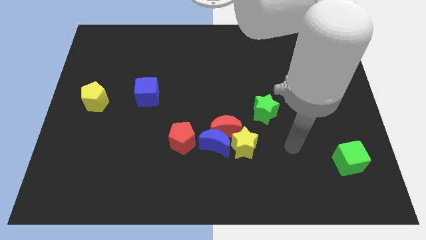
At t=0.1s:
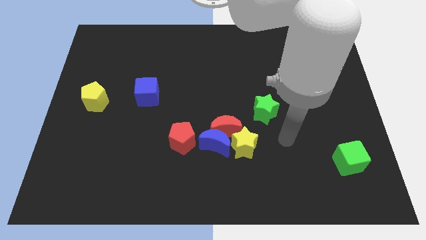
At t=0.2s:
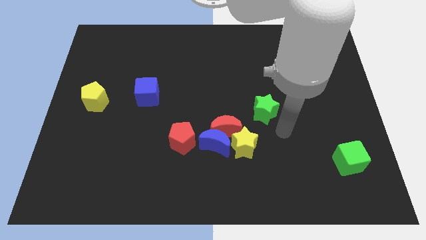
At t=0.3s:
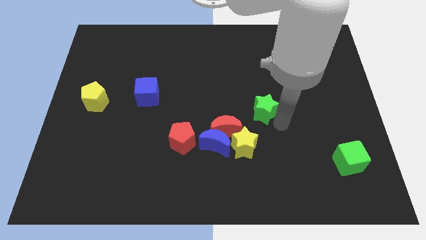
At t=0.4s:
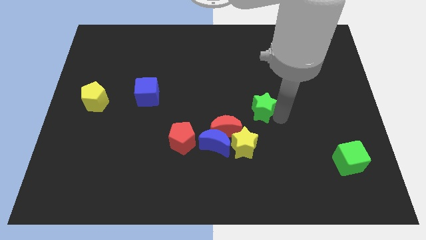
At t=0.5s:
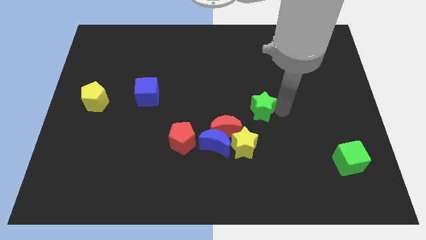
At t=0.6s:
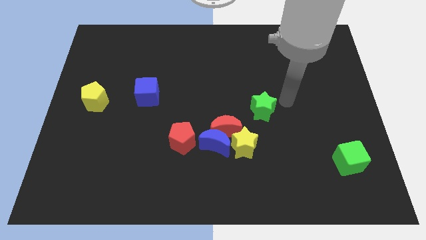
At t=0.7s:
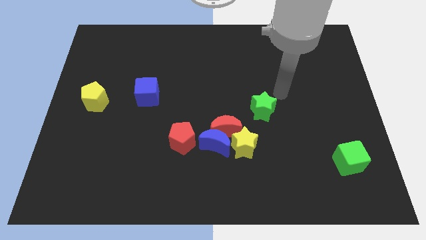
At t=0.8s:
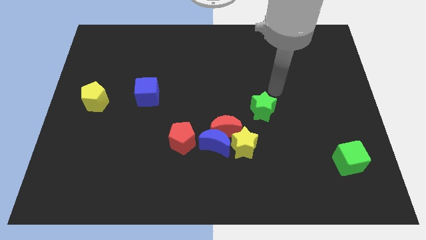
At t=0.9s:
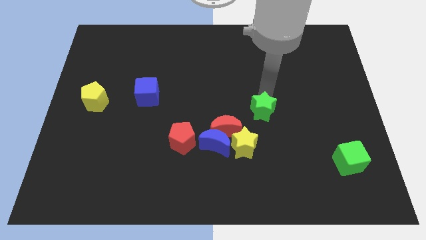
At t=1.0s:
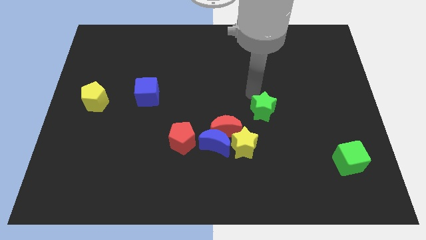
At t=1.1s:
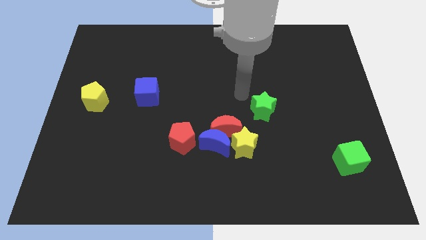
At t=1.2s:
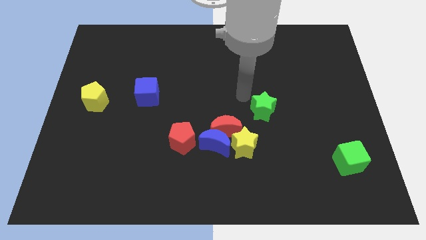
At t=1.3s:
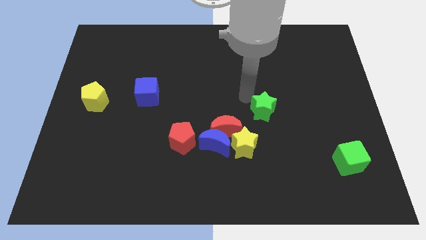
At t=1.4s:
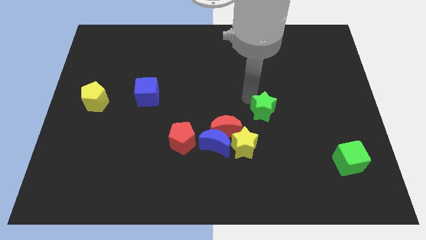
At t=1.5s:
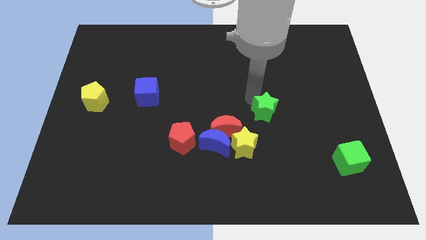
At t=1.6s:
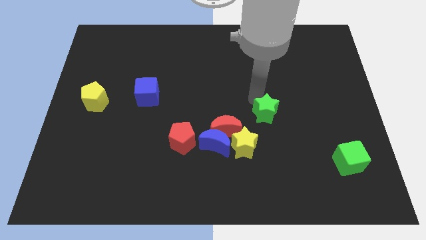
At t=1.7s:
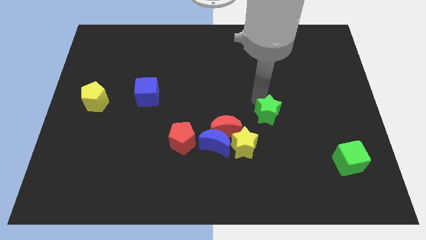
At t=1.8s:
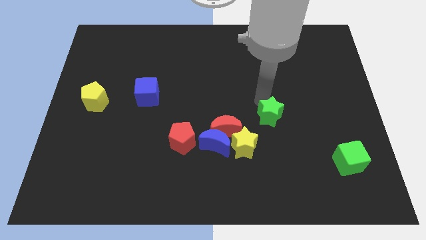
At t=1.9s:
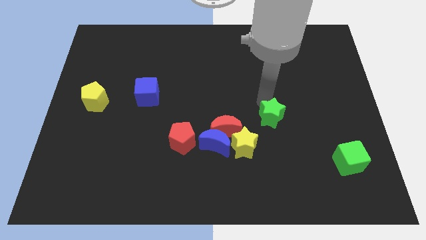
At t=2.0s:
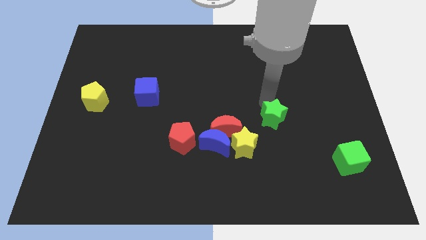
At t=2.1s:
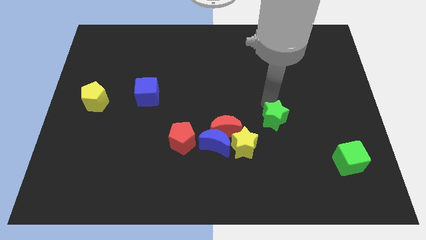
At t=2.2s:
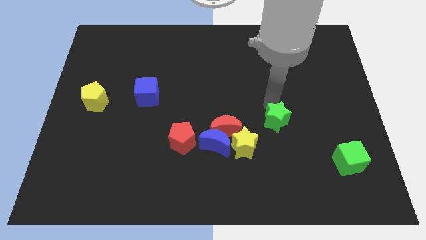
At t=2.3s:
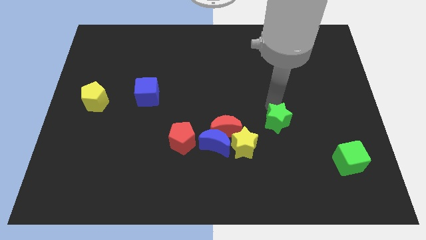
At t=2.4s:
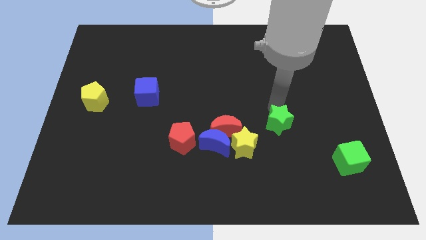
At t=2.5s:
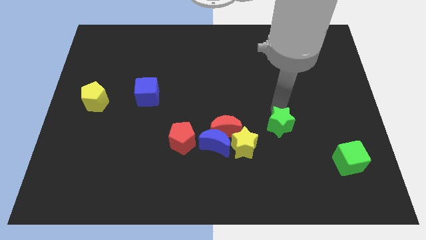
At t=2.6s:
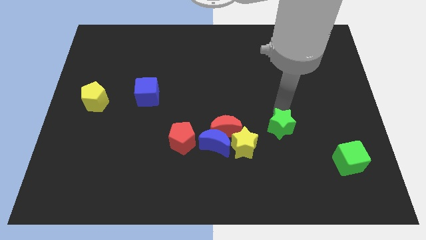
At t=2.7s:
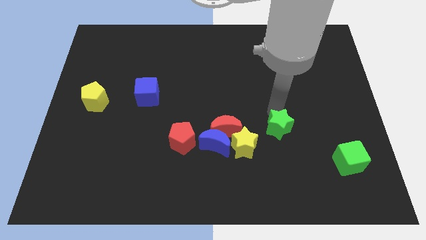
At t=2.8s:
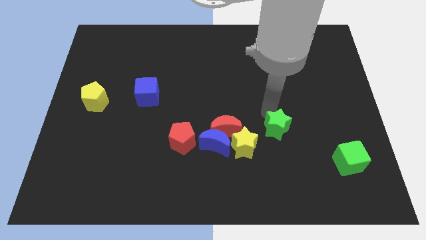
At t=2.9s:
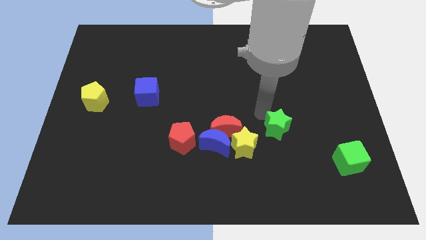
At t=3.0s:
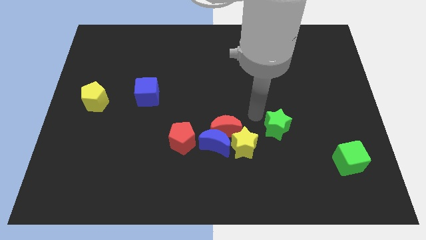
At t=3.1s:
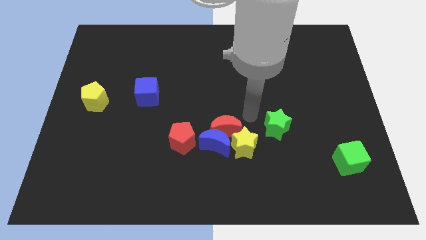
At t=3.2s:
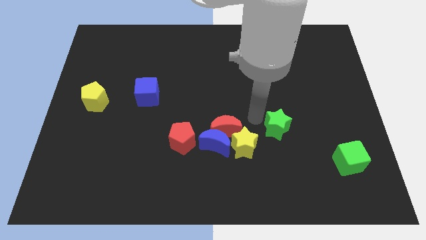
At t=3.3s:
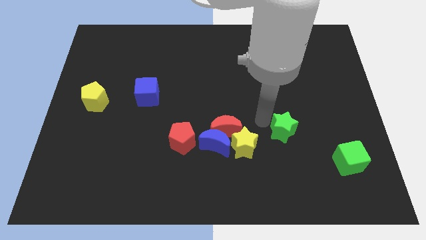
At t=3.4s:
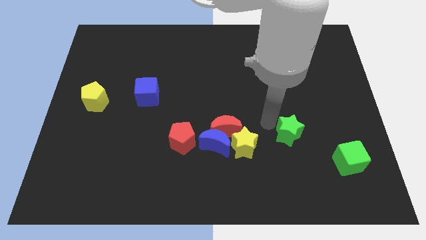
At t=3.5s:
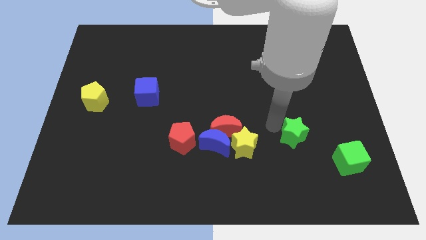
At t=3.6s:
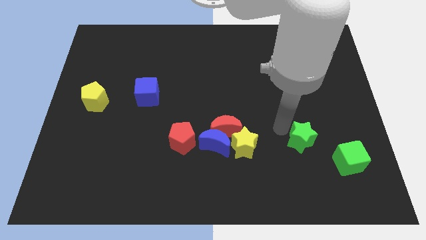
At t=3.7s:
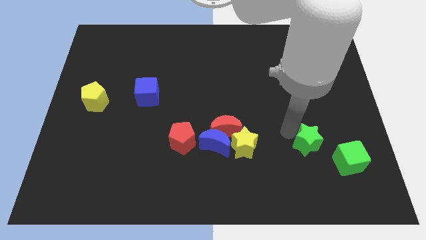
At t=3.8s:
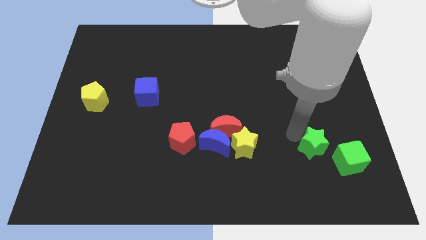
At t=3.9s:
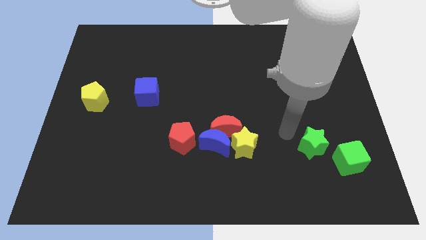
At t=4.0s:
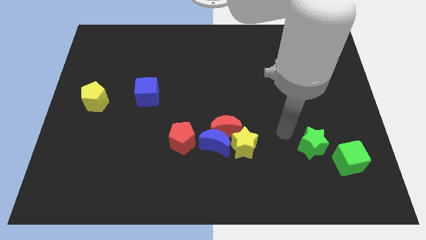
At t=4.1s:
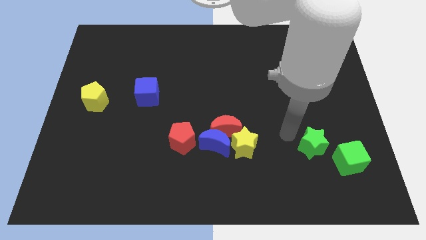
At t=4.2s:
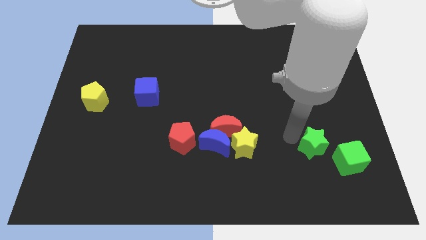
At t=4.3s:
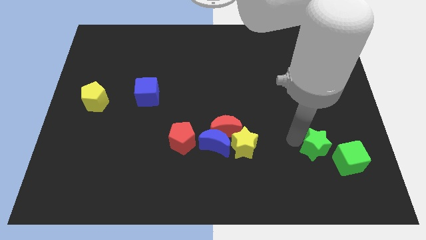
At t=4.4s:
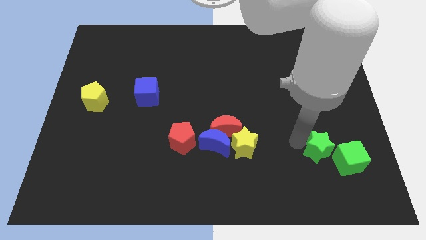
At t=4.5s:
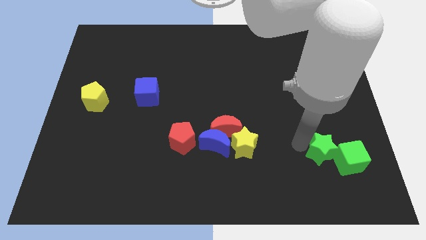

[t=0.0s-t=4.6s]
slide the green star close to the green cube

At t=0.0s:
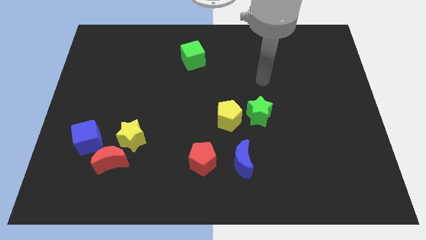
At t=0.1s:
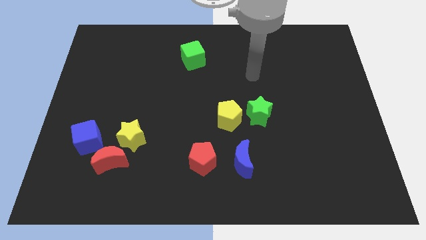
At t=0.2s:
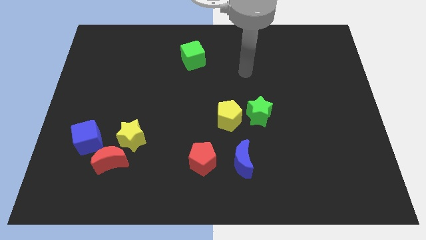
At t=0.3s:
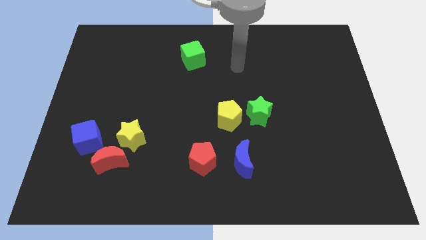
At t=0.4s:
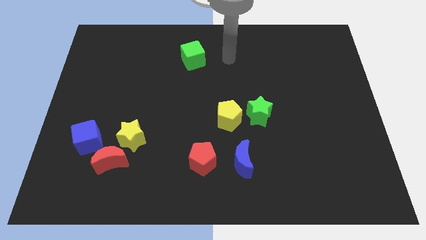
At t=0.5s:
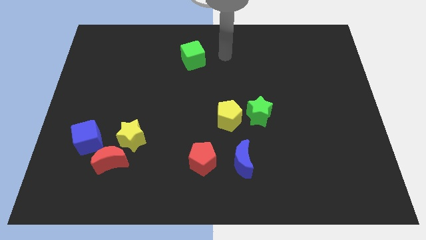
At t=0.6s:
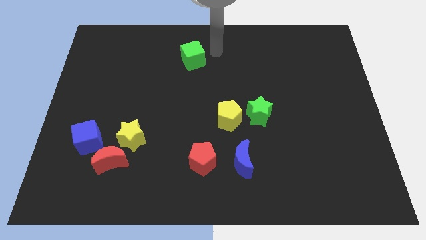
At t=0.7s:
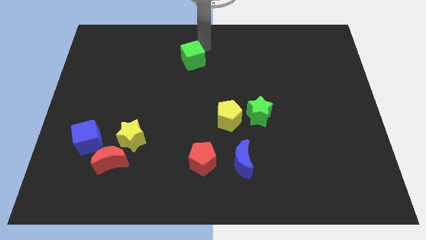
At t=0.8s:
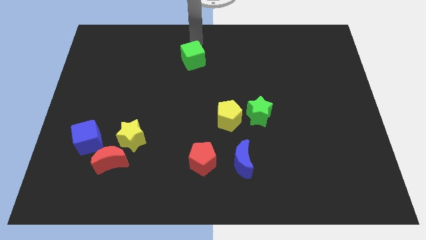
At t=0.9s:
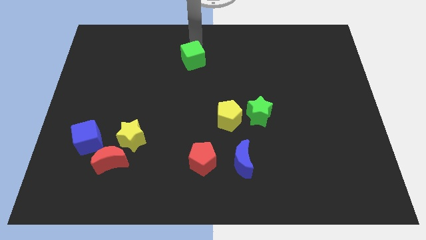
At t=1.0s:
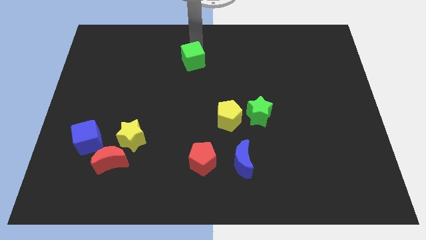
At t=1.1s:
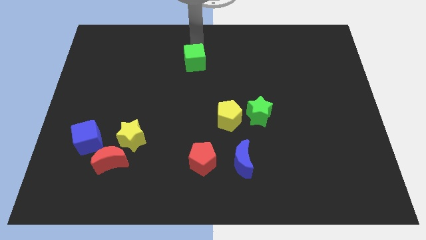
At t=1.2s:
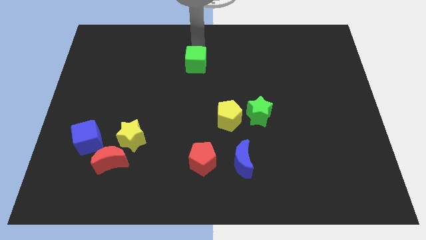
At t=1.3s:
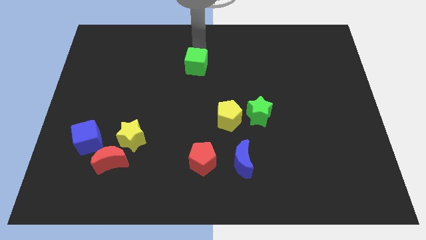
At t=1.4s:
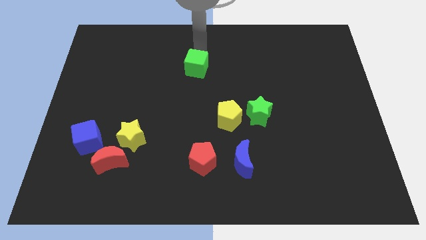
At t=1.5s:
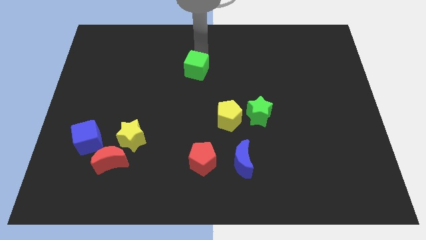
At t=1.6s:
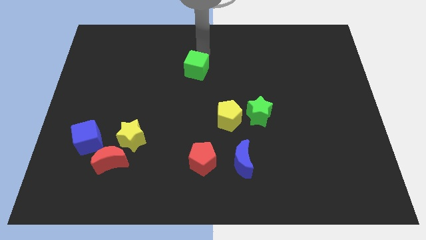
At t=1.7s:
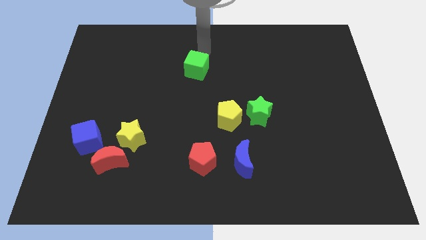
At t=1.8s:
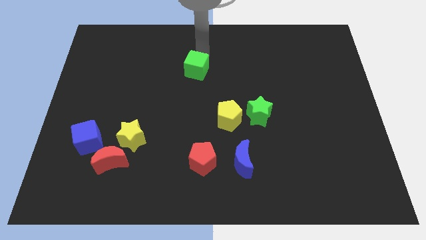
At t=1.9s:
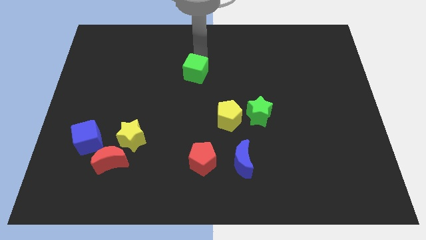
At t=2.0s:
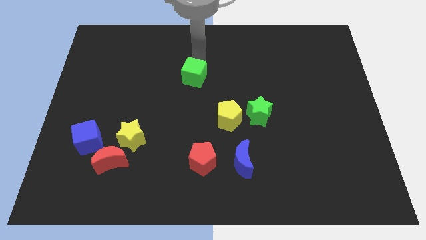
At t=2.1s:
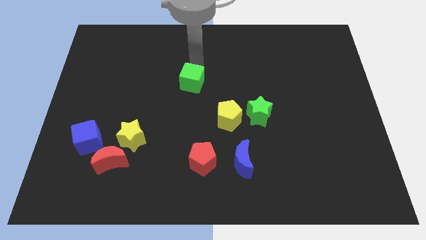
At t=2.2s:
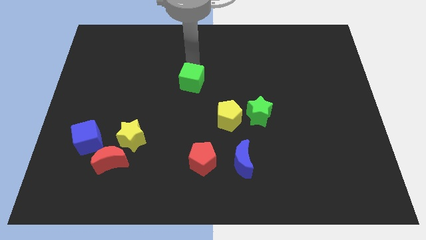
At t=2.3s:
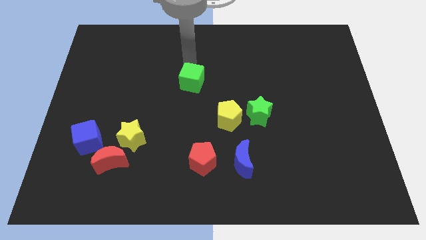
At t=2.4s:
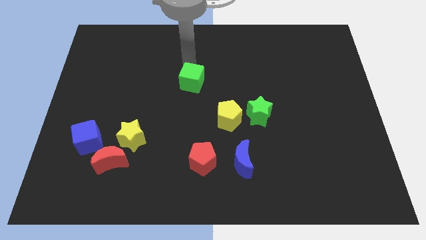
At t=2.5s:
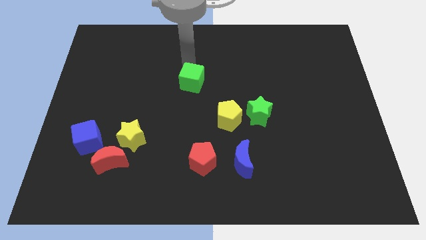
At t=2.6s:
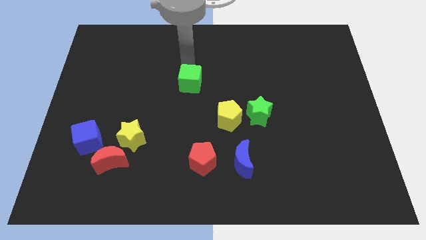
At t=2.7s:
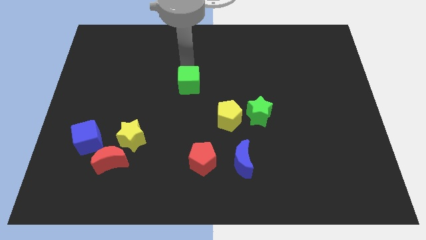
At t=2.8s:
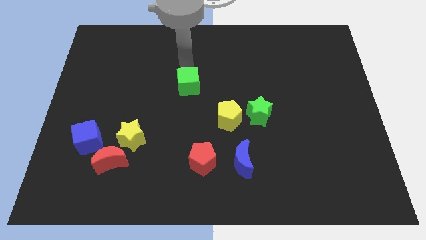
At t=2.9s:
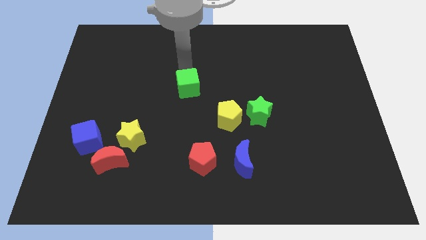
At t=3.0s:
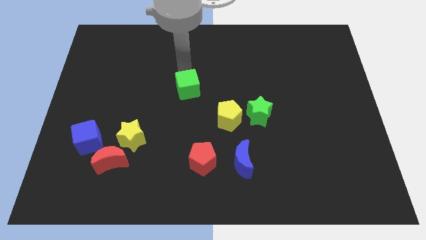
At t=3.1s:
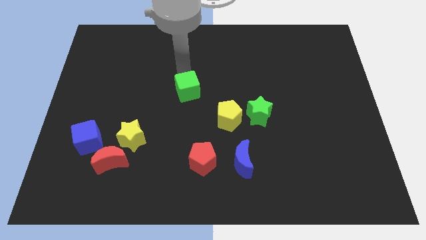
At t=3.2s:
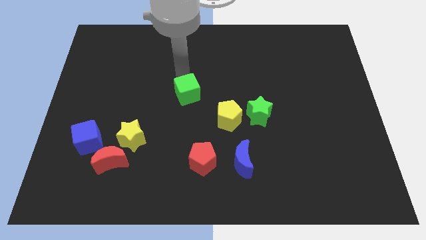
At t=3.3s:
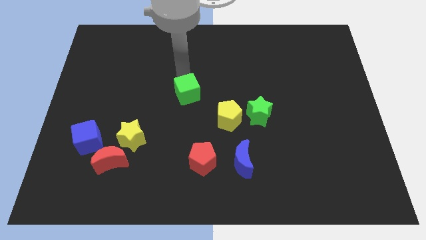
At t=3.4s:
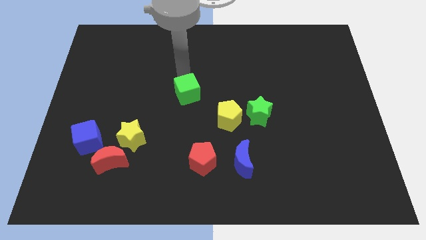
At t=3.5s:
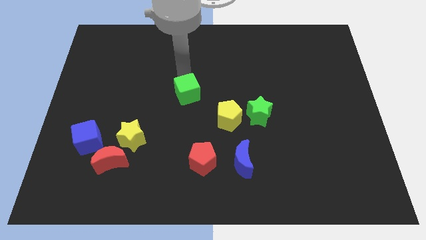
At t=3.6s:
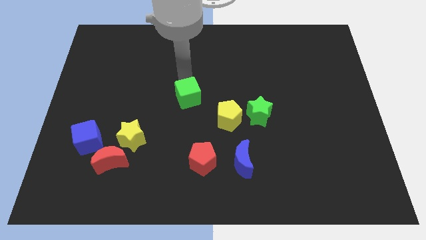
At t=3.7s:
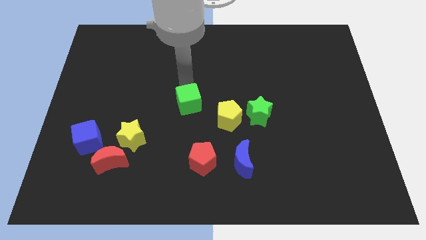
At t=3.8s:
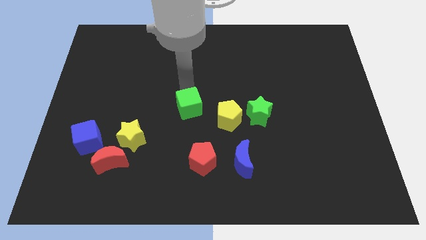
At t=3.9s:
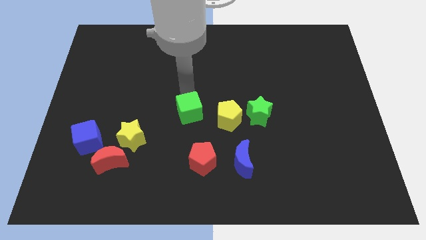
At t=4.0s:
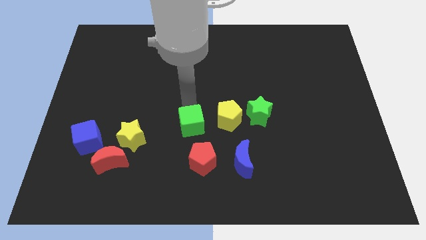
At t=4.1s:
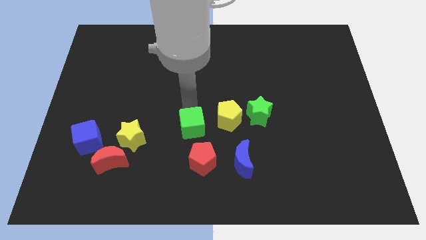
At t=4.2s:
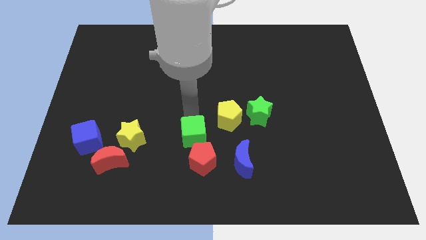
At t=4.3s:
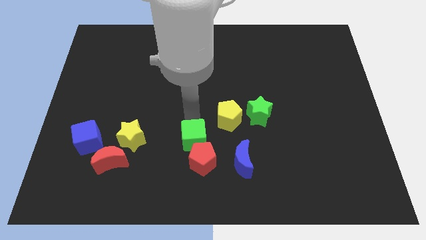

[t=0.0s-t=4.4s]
slide the green cube close to the red pentagon
